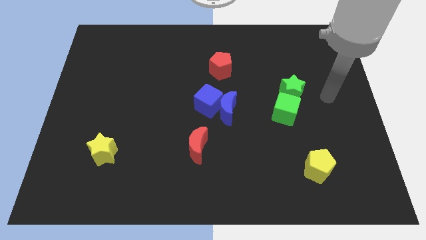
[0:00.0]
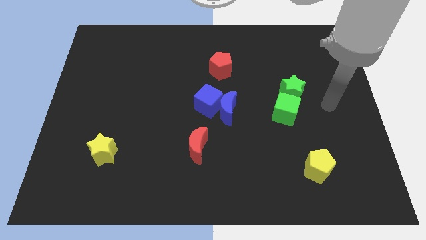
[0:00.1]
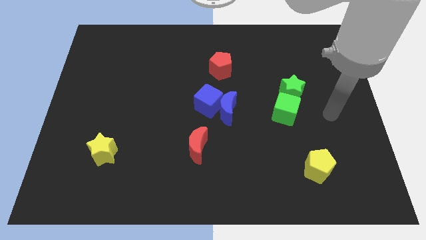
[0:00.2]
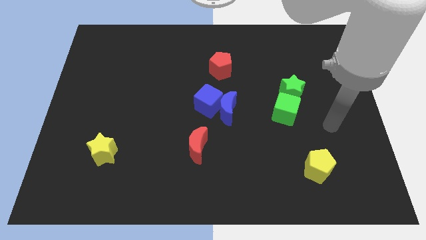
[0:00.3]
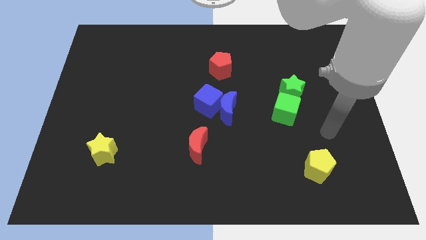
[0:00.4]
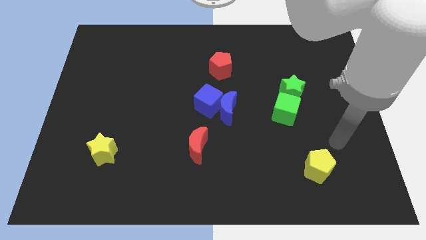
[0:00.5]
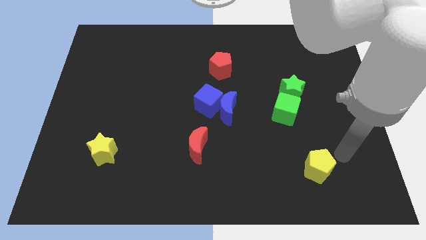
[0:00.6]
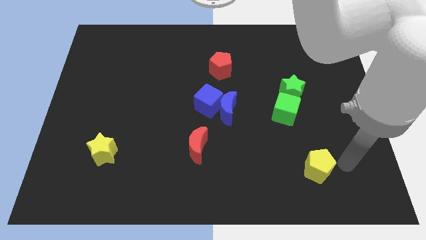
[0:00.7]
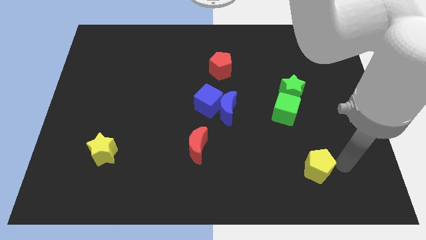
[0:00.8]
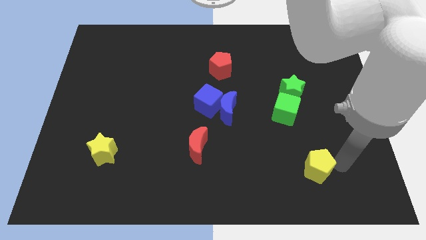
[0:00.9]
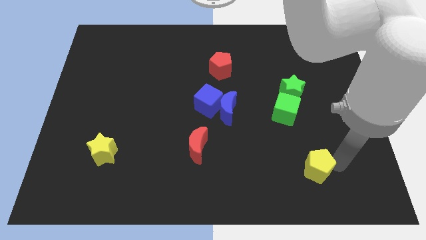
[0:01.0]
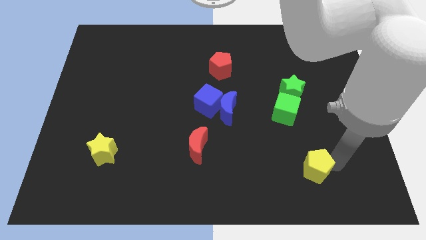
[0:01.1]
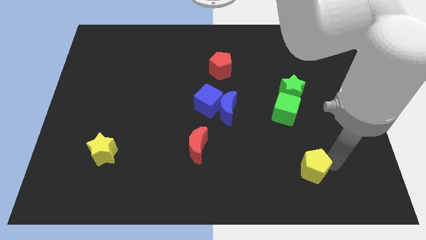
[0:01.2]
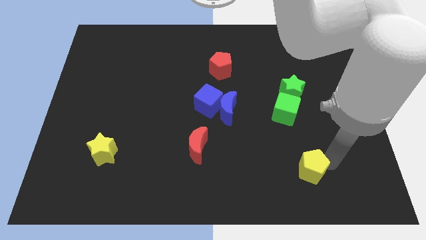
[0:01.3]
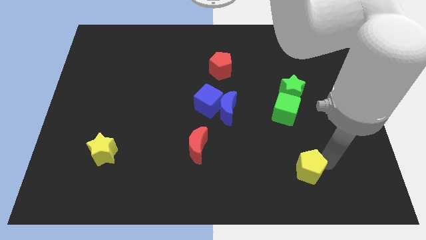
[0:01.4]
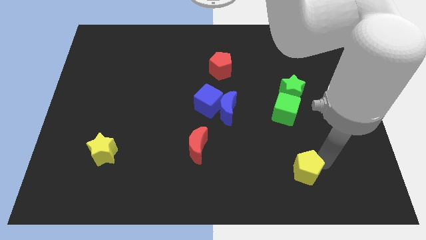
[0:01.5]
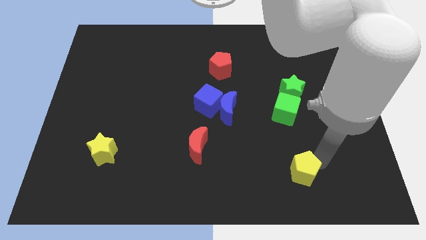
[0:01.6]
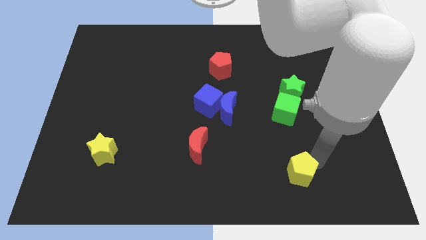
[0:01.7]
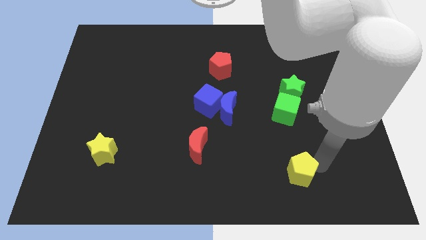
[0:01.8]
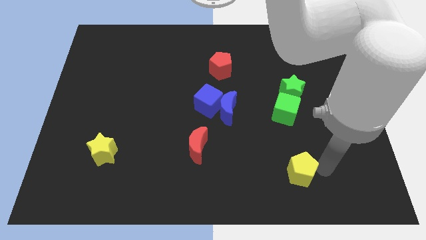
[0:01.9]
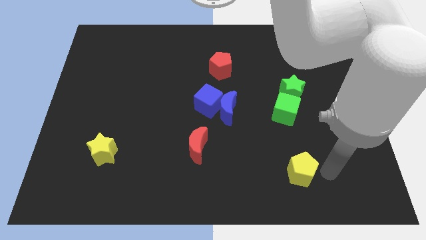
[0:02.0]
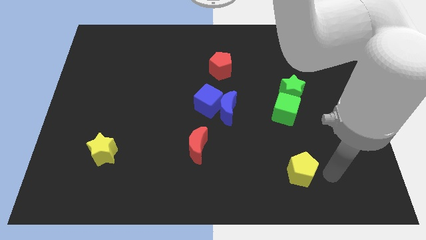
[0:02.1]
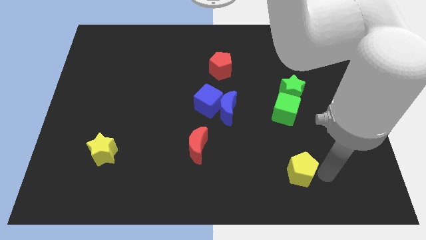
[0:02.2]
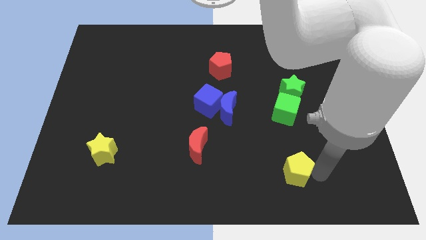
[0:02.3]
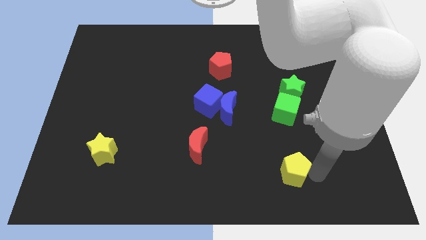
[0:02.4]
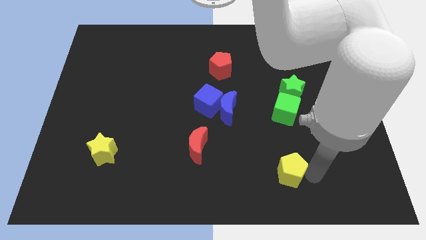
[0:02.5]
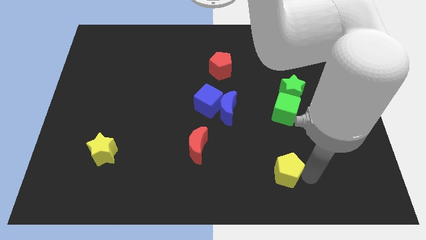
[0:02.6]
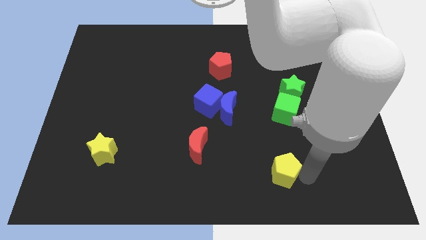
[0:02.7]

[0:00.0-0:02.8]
slightly move the yellow pentagon left

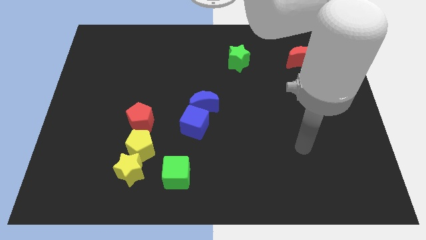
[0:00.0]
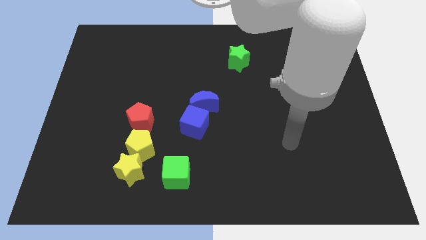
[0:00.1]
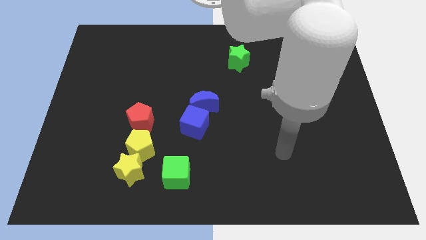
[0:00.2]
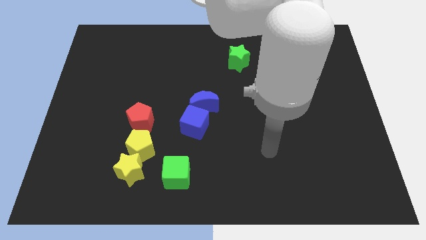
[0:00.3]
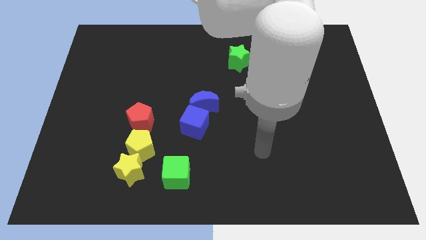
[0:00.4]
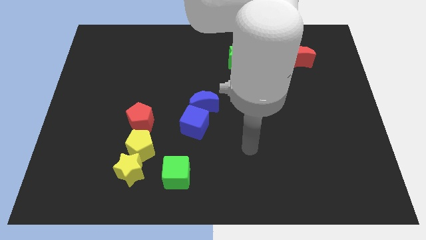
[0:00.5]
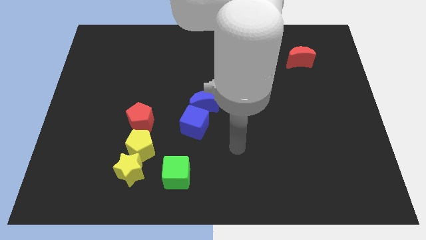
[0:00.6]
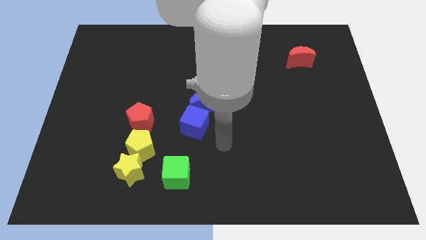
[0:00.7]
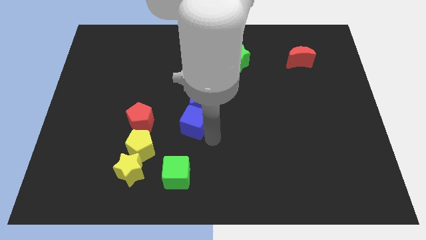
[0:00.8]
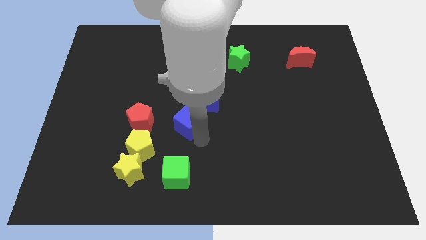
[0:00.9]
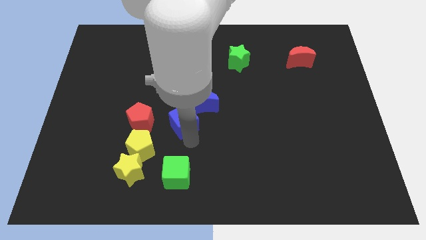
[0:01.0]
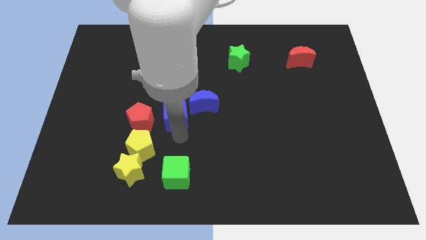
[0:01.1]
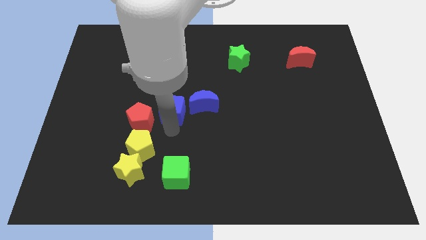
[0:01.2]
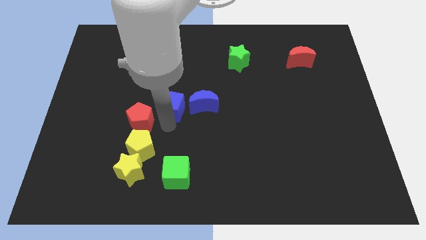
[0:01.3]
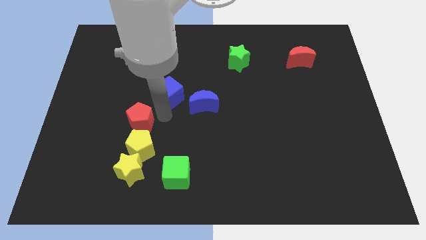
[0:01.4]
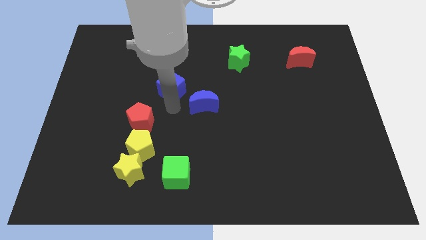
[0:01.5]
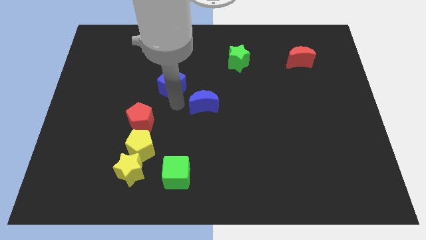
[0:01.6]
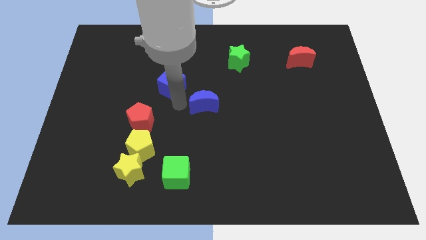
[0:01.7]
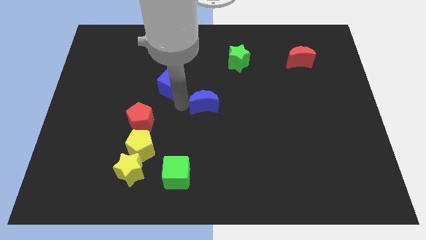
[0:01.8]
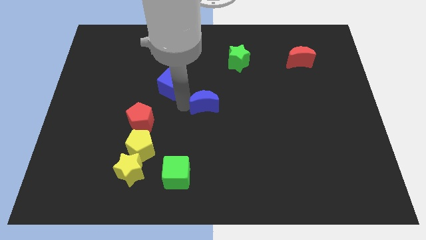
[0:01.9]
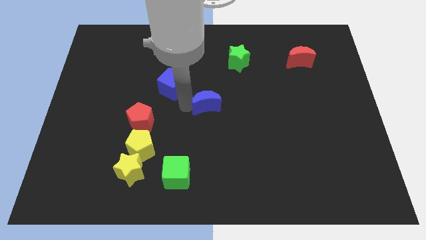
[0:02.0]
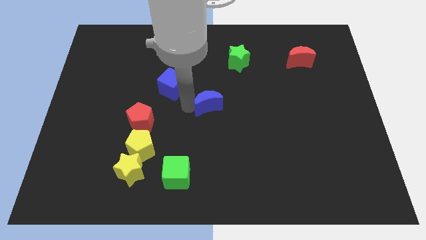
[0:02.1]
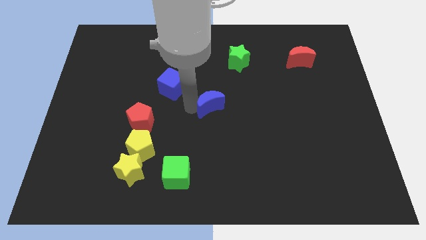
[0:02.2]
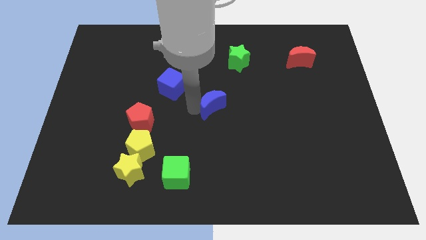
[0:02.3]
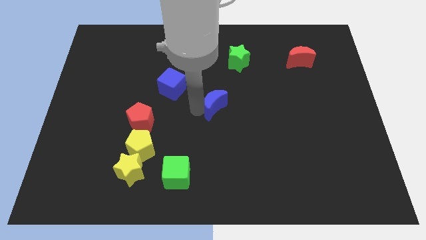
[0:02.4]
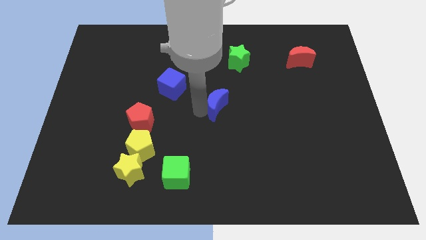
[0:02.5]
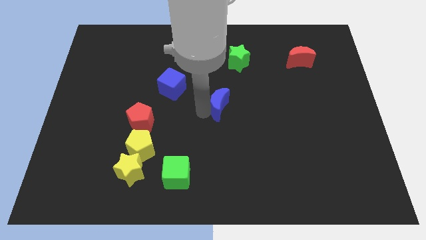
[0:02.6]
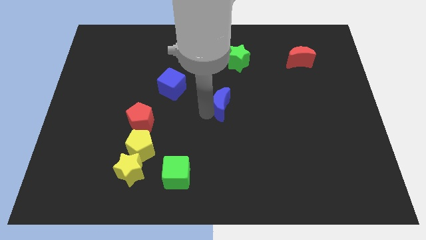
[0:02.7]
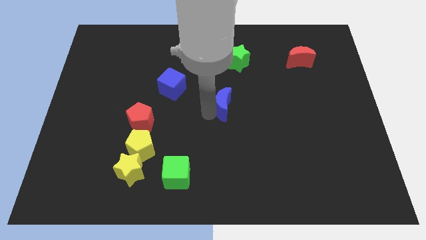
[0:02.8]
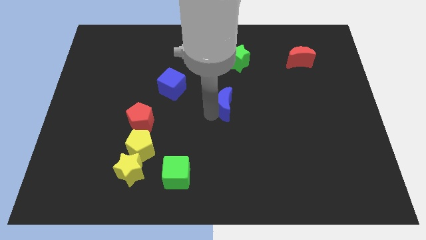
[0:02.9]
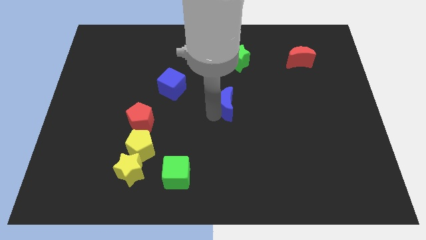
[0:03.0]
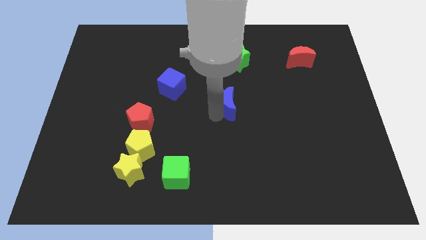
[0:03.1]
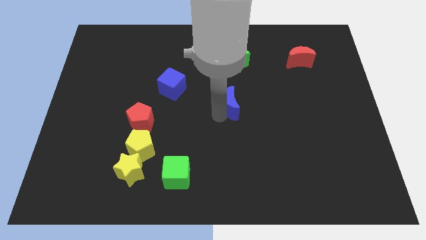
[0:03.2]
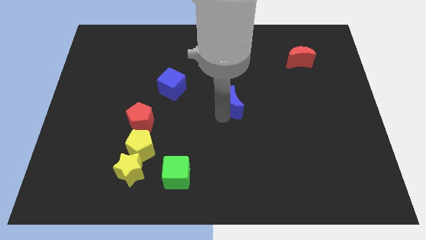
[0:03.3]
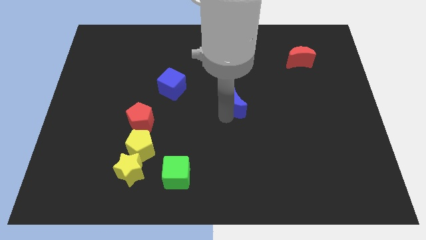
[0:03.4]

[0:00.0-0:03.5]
slide the blue moon right slightly

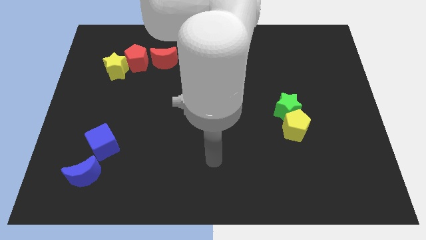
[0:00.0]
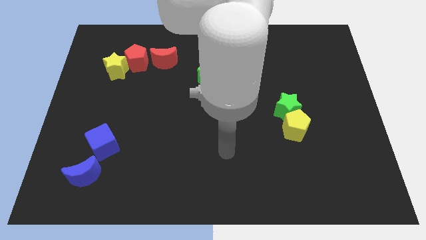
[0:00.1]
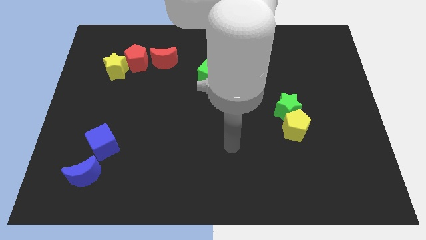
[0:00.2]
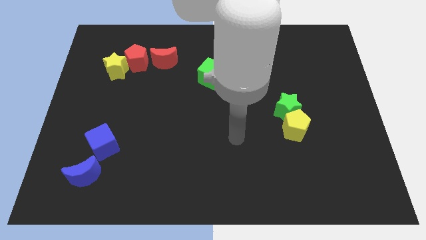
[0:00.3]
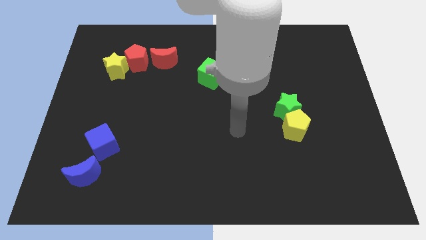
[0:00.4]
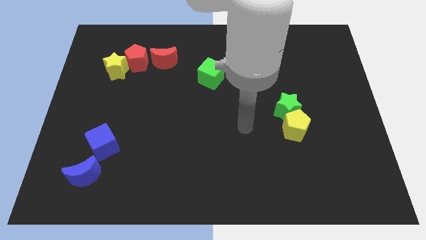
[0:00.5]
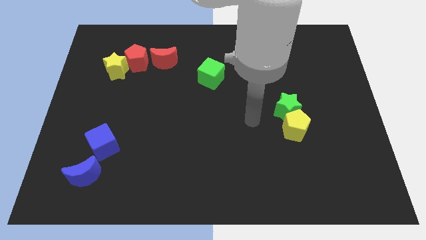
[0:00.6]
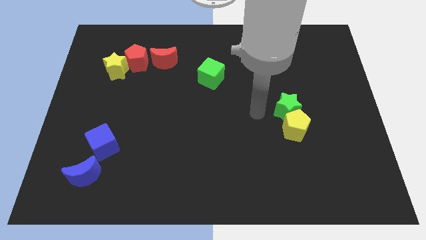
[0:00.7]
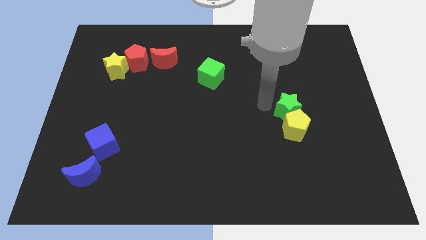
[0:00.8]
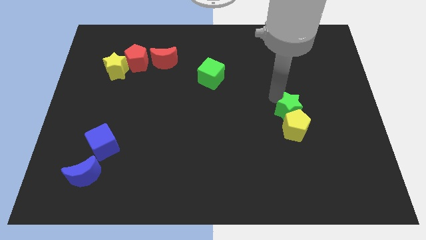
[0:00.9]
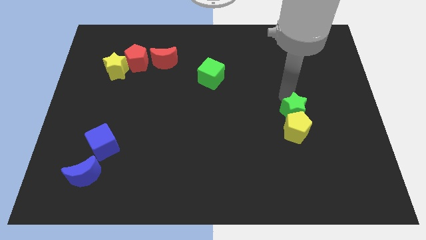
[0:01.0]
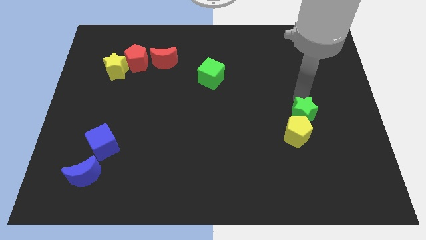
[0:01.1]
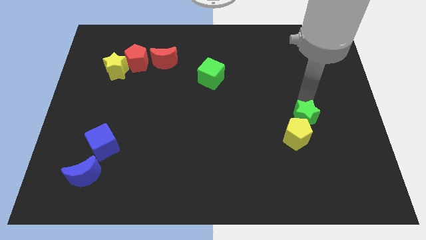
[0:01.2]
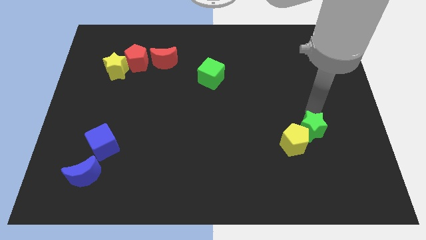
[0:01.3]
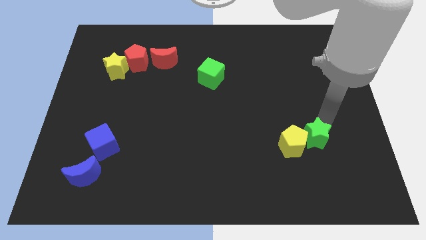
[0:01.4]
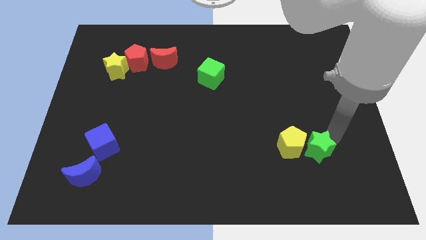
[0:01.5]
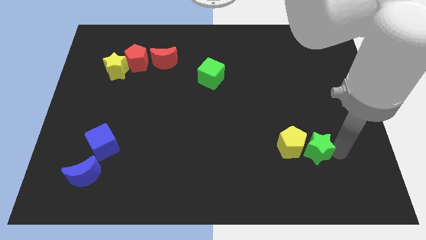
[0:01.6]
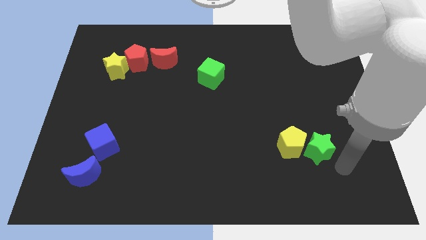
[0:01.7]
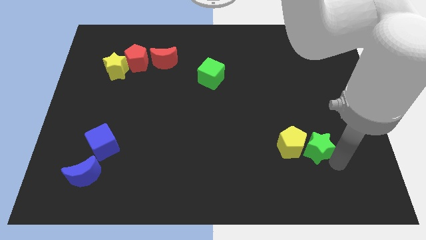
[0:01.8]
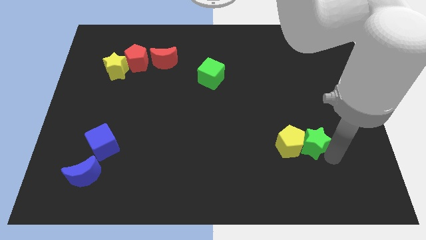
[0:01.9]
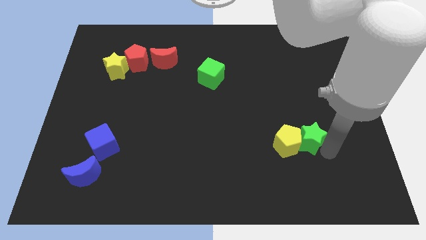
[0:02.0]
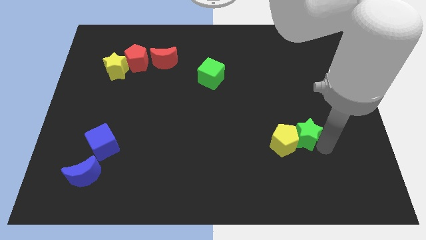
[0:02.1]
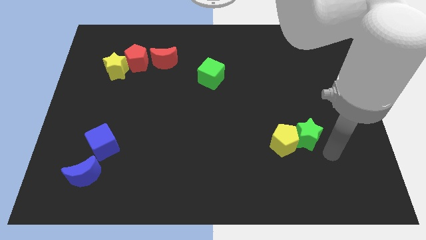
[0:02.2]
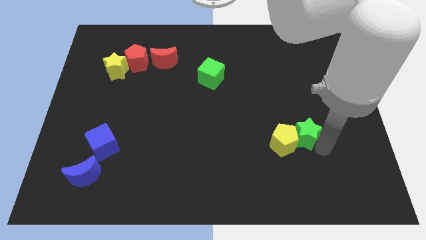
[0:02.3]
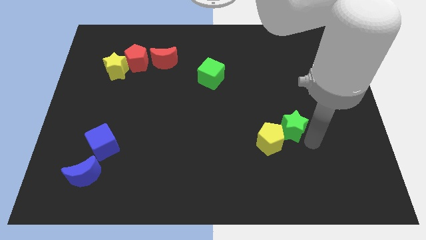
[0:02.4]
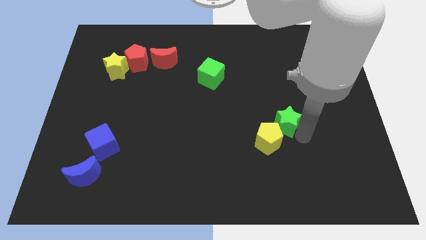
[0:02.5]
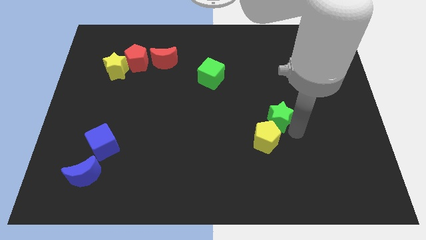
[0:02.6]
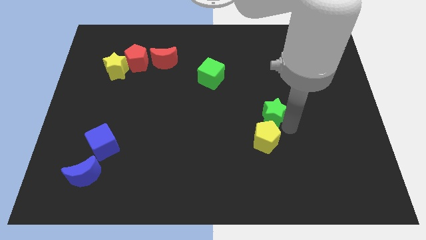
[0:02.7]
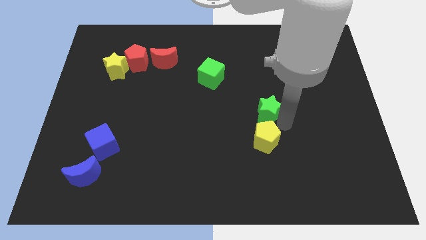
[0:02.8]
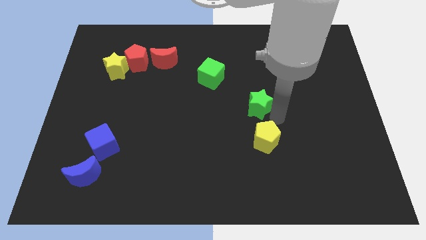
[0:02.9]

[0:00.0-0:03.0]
slightly slide the green star left
